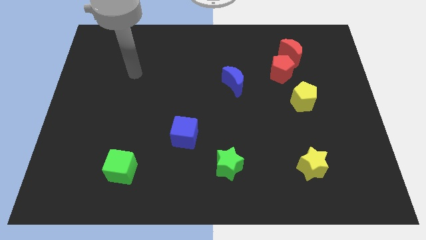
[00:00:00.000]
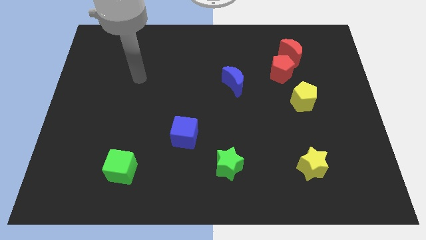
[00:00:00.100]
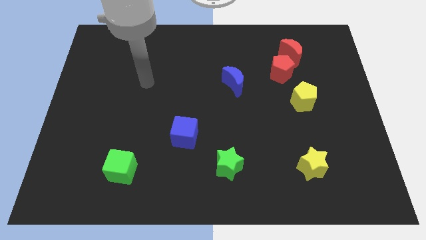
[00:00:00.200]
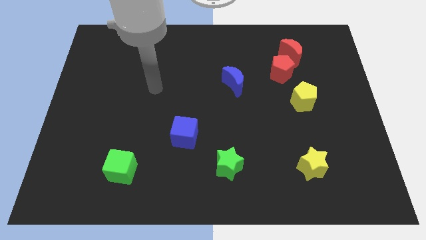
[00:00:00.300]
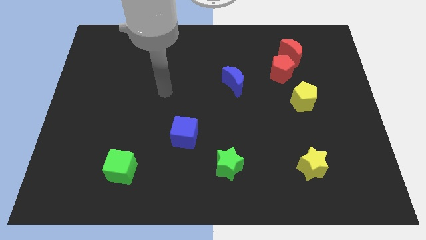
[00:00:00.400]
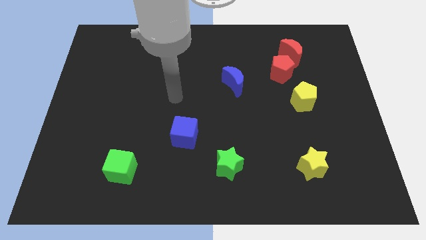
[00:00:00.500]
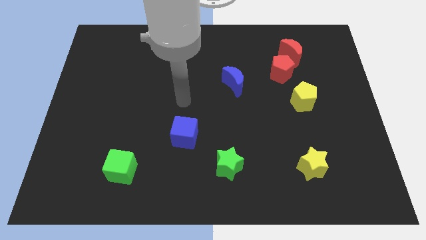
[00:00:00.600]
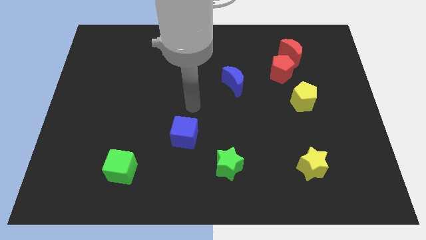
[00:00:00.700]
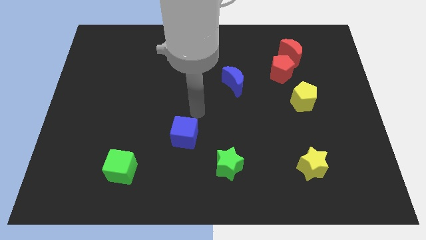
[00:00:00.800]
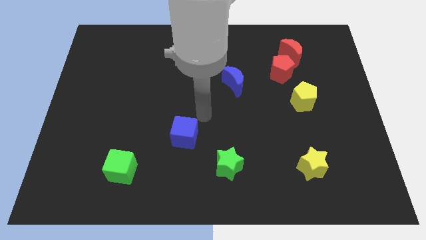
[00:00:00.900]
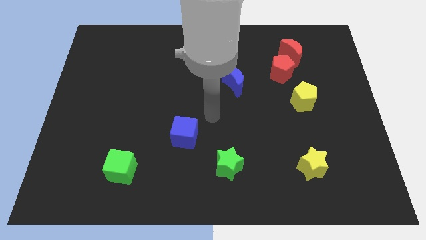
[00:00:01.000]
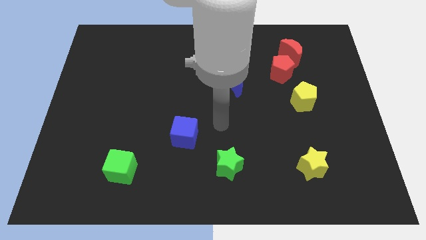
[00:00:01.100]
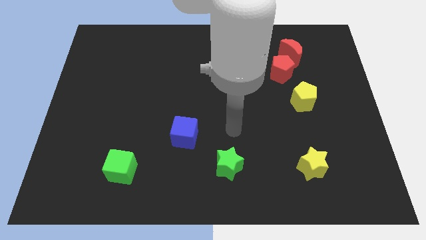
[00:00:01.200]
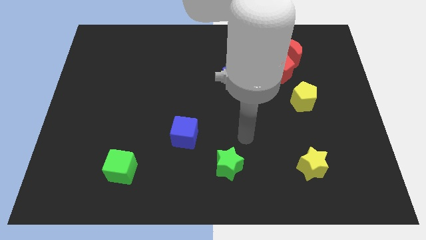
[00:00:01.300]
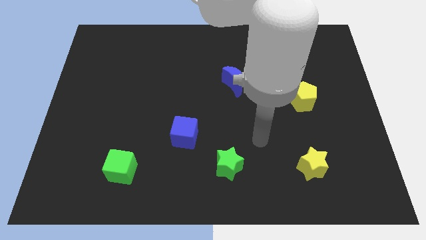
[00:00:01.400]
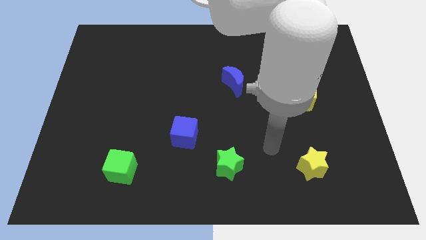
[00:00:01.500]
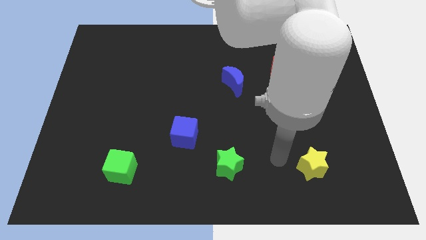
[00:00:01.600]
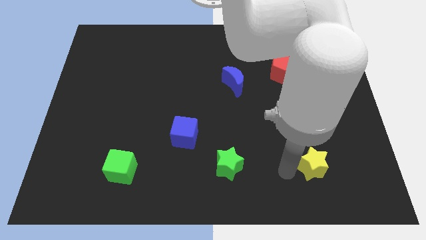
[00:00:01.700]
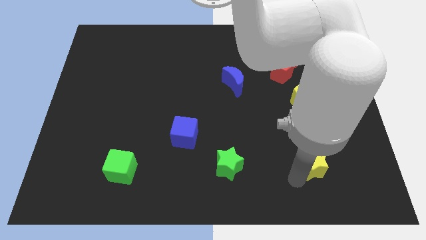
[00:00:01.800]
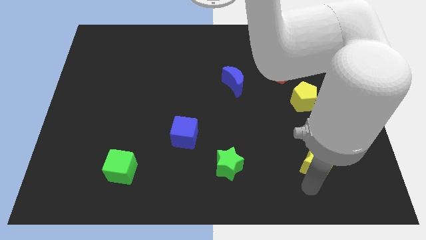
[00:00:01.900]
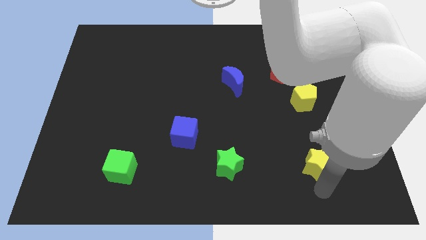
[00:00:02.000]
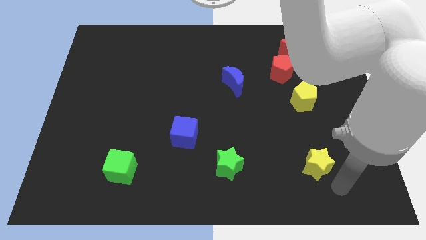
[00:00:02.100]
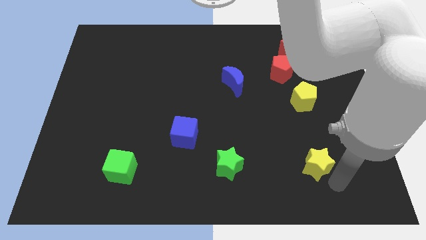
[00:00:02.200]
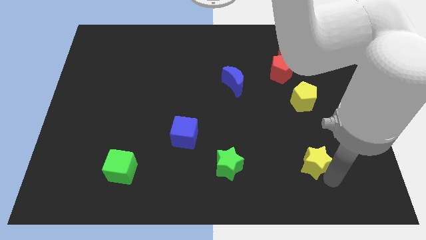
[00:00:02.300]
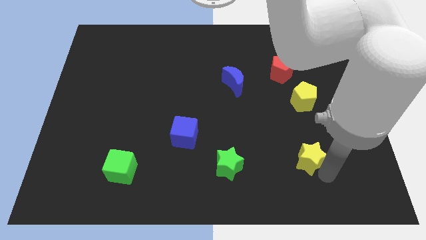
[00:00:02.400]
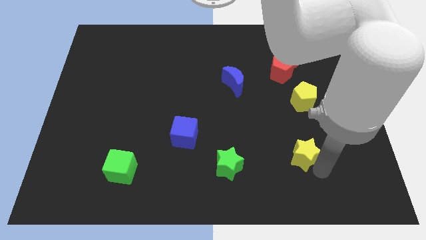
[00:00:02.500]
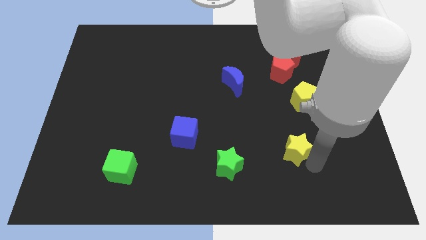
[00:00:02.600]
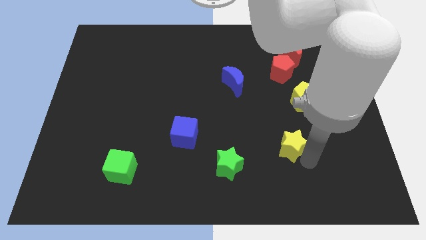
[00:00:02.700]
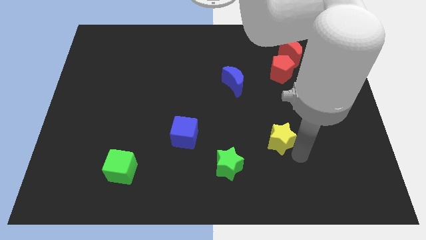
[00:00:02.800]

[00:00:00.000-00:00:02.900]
push the yellow star somewhat up and then to the left

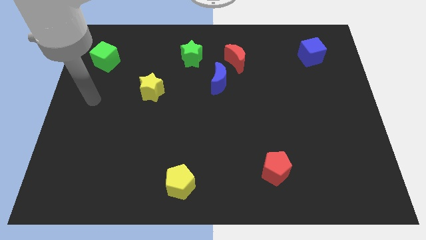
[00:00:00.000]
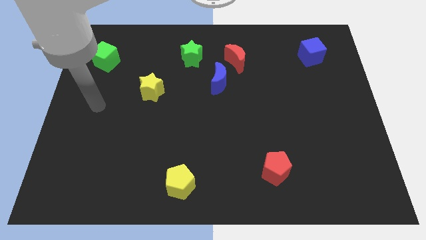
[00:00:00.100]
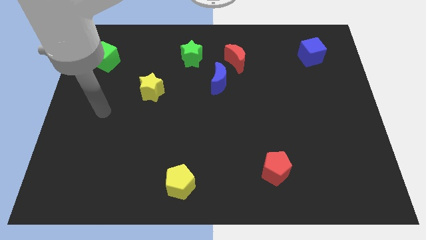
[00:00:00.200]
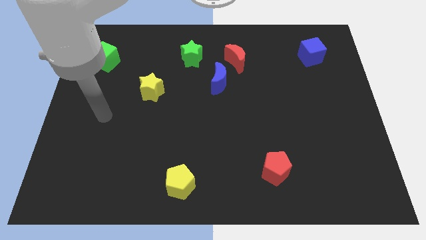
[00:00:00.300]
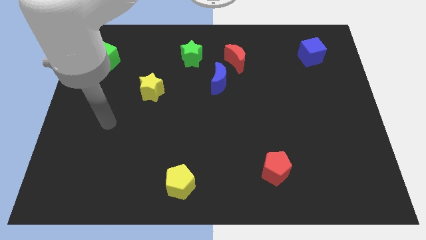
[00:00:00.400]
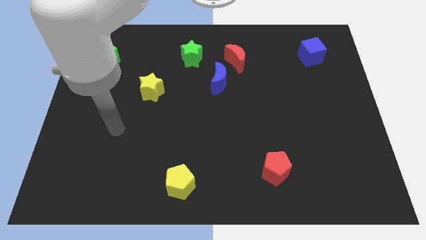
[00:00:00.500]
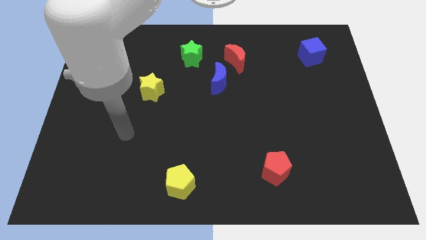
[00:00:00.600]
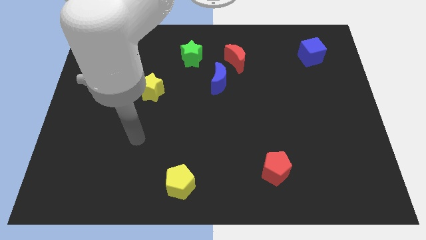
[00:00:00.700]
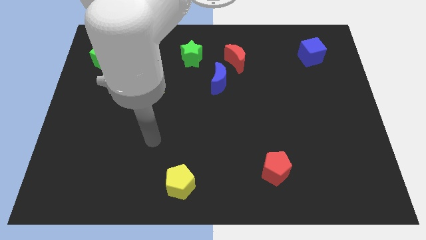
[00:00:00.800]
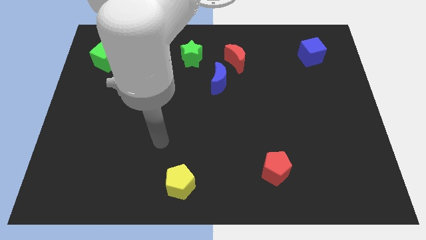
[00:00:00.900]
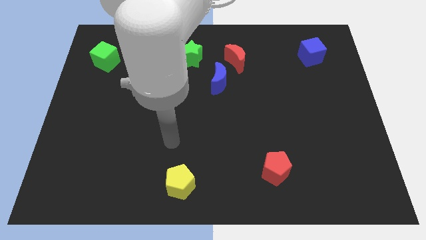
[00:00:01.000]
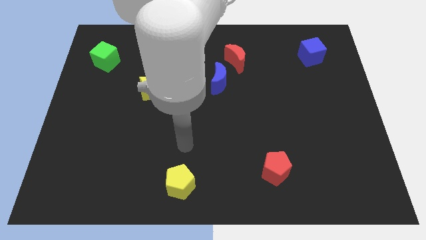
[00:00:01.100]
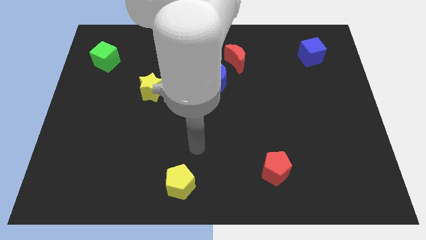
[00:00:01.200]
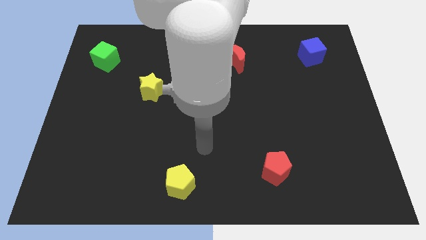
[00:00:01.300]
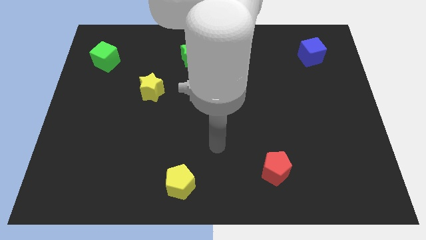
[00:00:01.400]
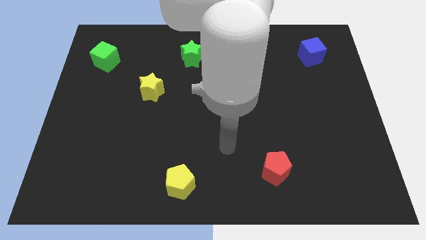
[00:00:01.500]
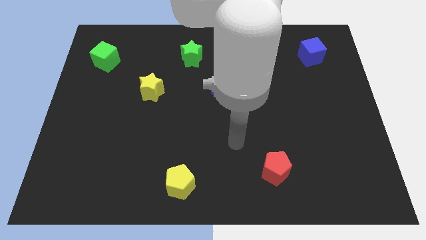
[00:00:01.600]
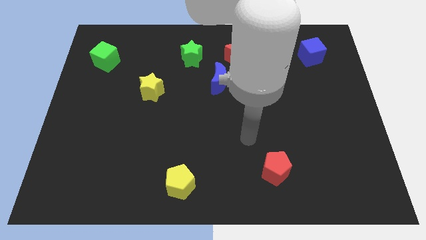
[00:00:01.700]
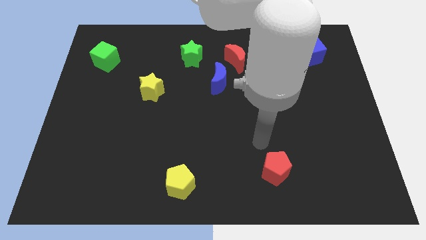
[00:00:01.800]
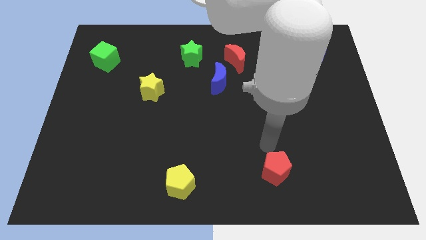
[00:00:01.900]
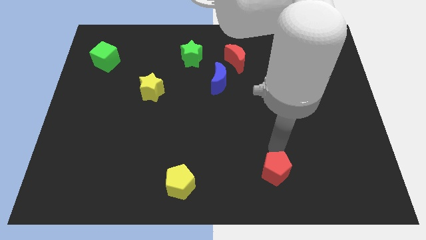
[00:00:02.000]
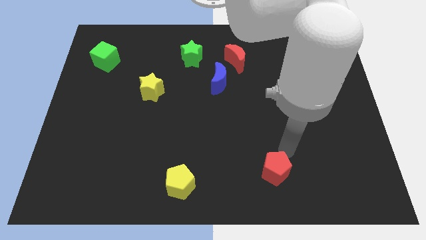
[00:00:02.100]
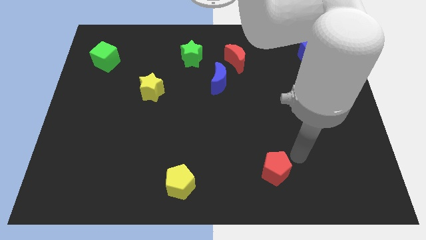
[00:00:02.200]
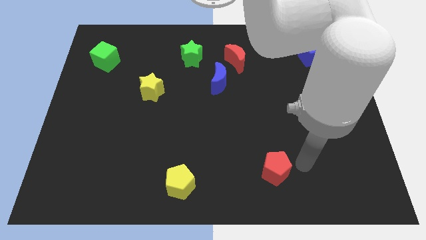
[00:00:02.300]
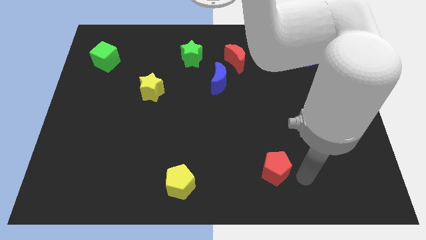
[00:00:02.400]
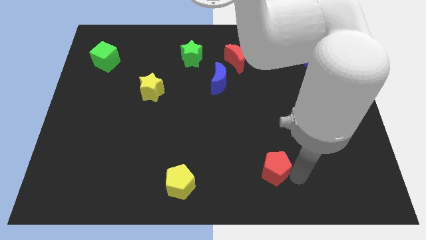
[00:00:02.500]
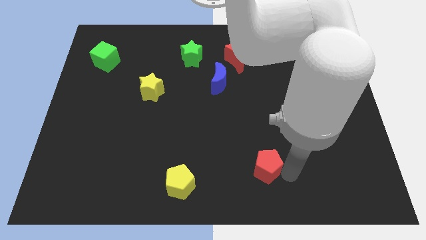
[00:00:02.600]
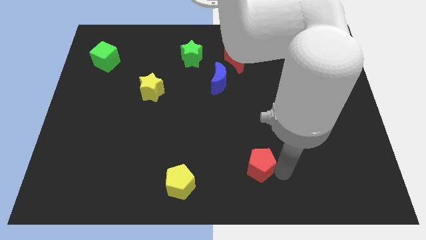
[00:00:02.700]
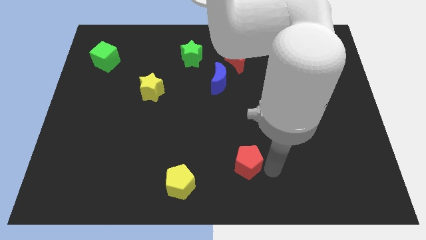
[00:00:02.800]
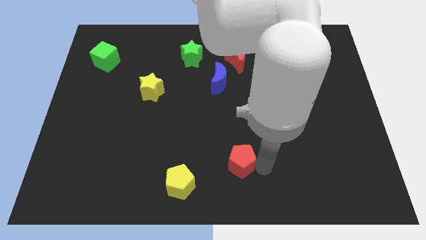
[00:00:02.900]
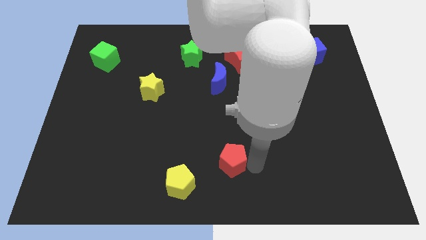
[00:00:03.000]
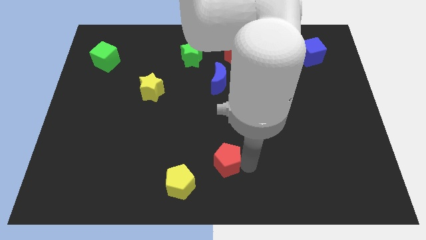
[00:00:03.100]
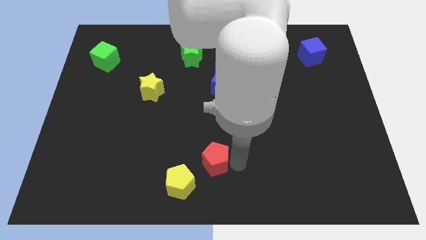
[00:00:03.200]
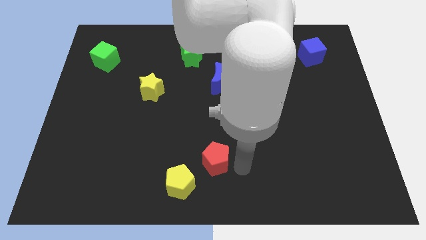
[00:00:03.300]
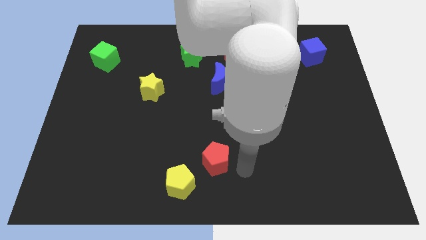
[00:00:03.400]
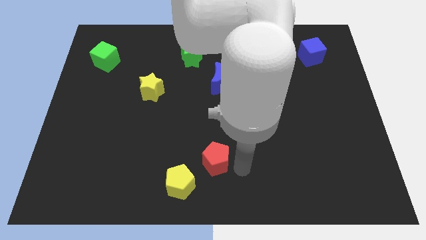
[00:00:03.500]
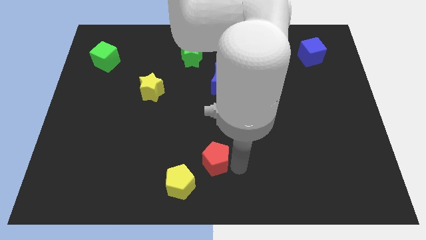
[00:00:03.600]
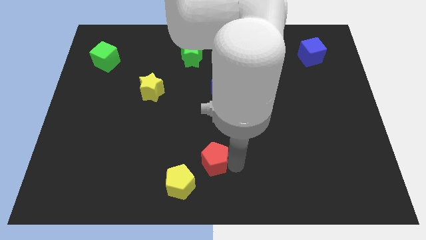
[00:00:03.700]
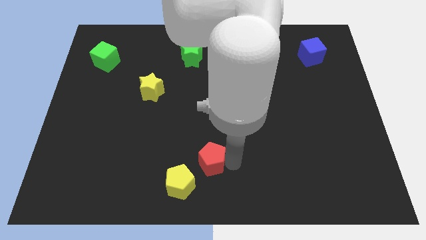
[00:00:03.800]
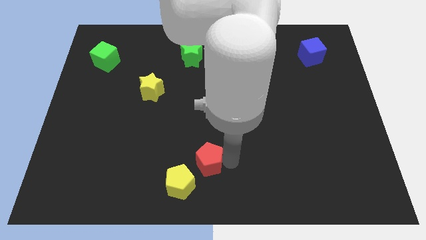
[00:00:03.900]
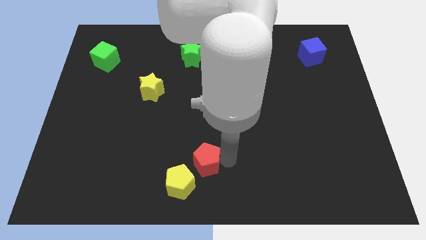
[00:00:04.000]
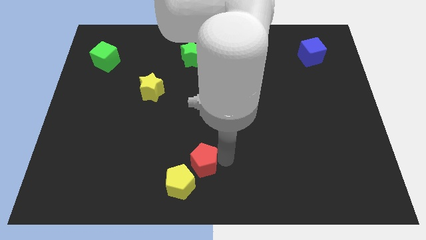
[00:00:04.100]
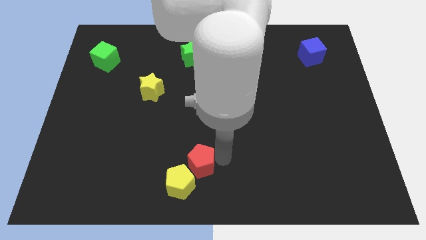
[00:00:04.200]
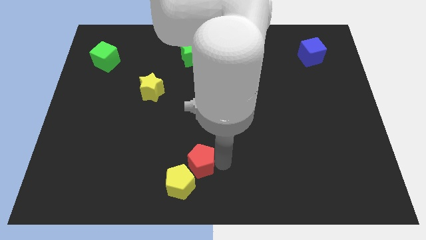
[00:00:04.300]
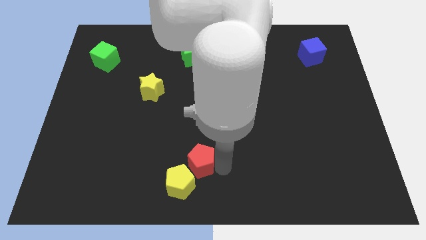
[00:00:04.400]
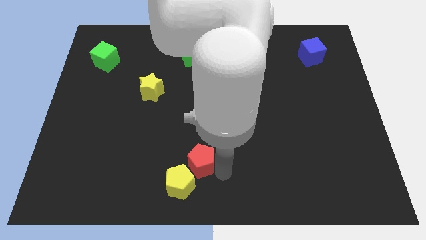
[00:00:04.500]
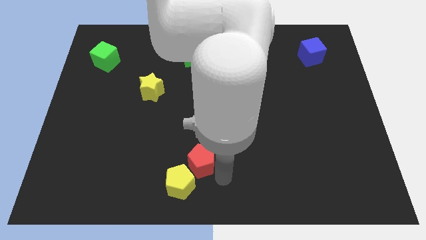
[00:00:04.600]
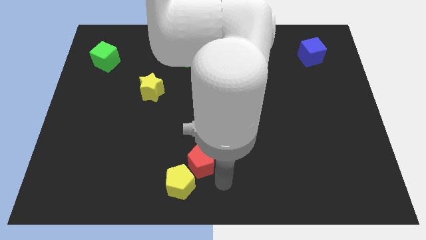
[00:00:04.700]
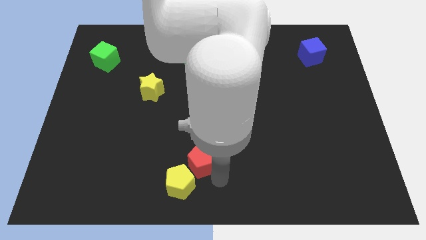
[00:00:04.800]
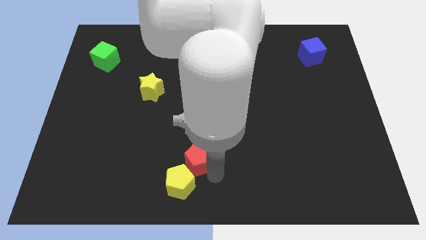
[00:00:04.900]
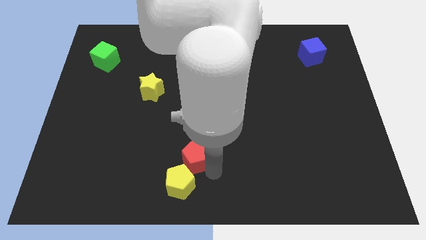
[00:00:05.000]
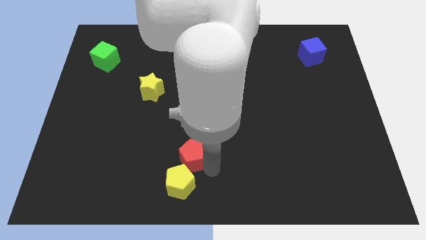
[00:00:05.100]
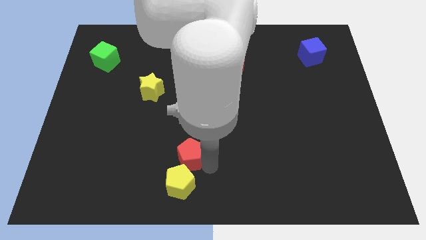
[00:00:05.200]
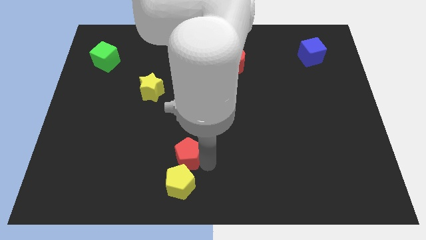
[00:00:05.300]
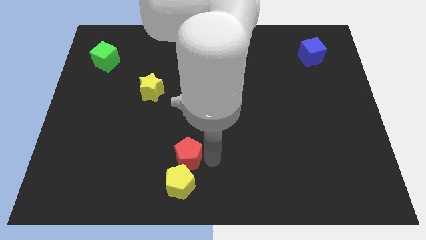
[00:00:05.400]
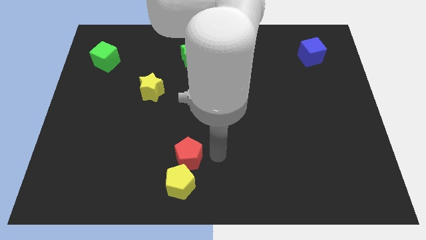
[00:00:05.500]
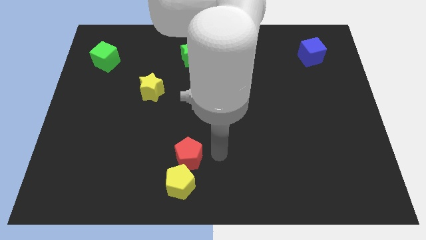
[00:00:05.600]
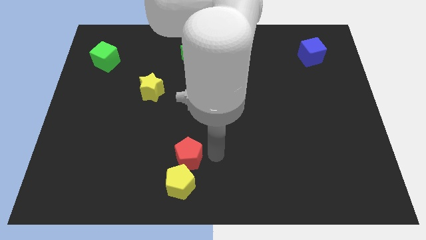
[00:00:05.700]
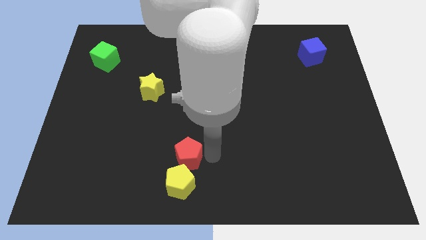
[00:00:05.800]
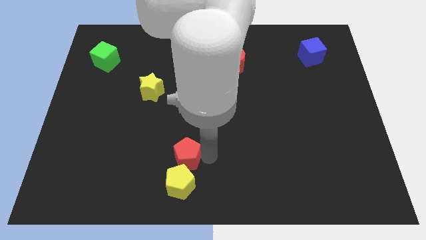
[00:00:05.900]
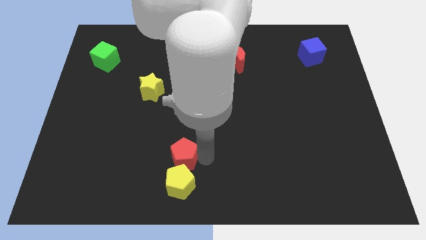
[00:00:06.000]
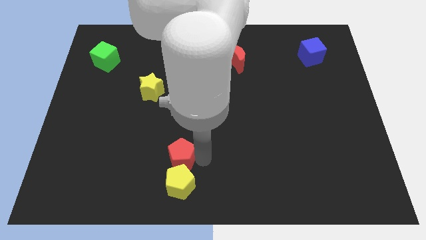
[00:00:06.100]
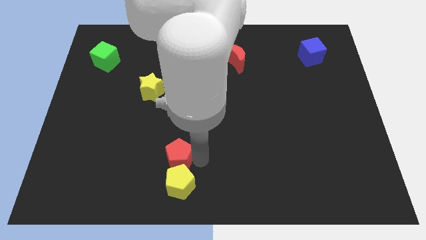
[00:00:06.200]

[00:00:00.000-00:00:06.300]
move the red pentagon left
